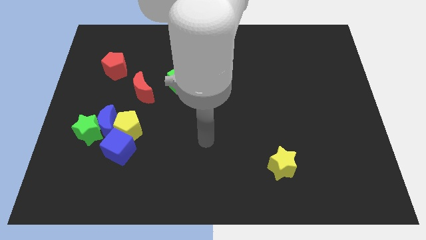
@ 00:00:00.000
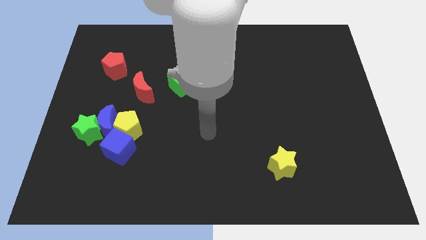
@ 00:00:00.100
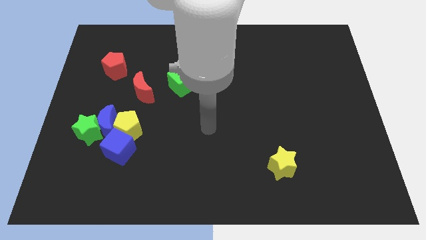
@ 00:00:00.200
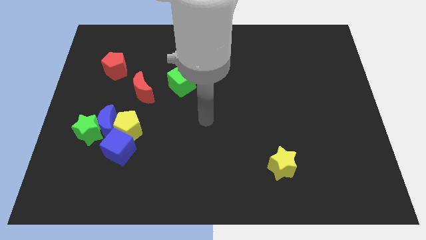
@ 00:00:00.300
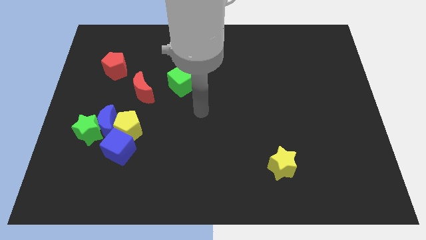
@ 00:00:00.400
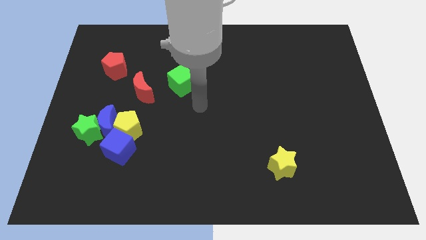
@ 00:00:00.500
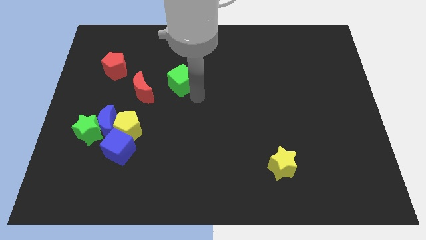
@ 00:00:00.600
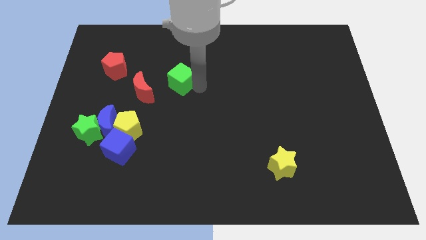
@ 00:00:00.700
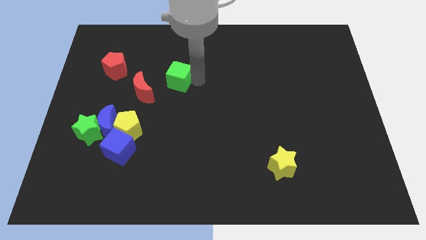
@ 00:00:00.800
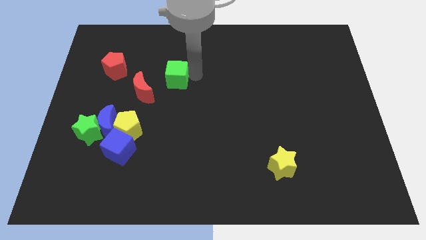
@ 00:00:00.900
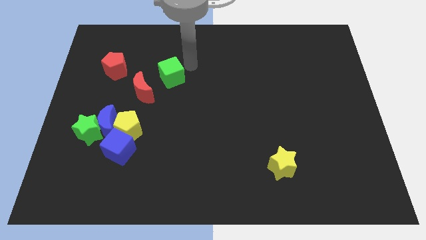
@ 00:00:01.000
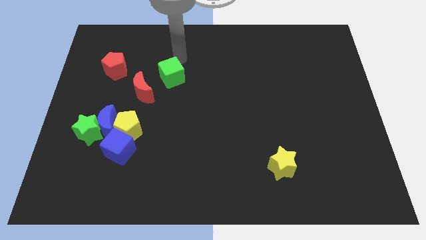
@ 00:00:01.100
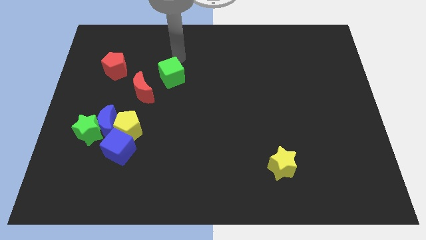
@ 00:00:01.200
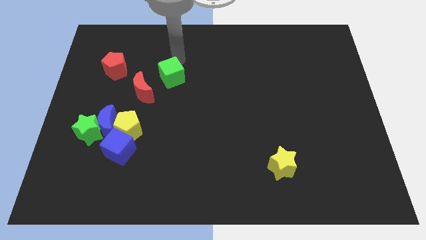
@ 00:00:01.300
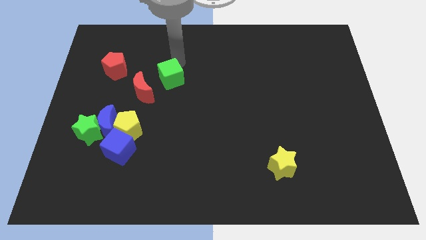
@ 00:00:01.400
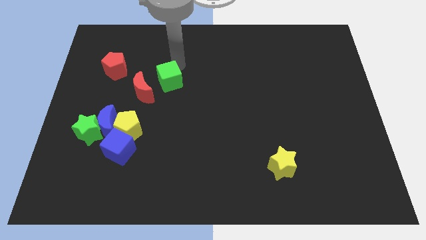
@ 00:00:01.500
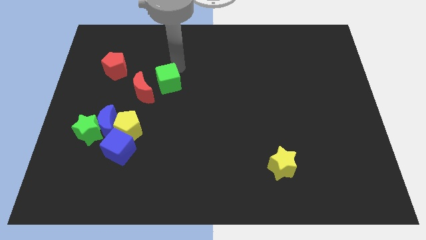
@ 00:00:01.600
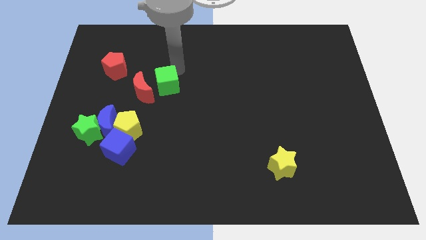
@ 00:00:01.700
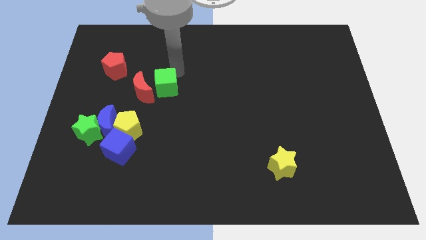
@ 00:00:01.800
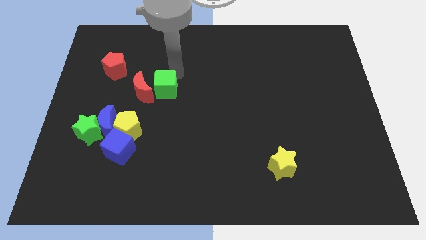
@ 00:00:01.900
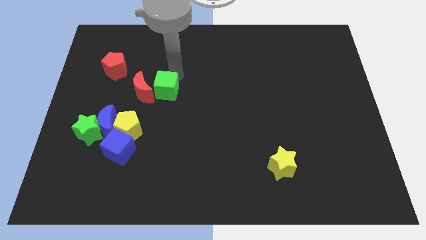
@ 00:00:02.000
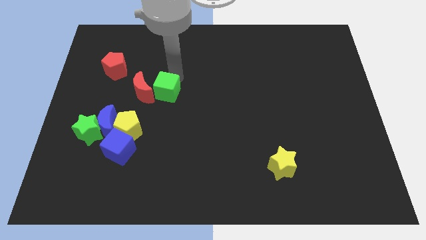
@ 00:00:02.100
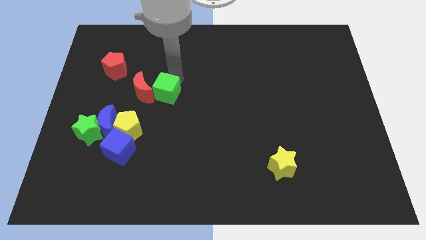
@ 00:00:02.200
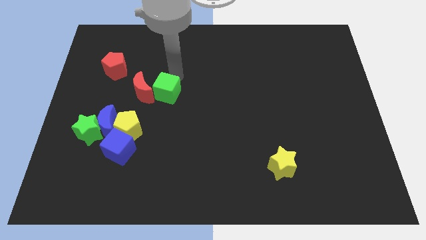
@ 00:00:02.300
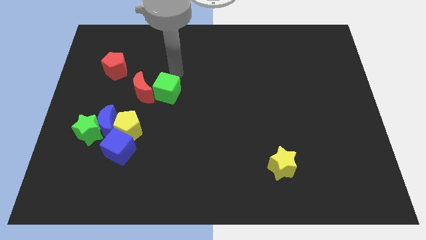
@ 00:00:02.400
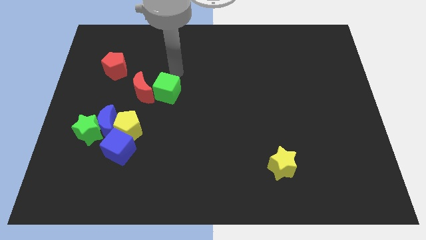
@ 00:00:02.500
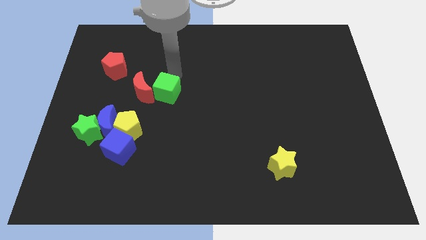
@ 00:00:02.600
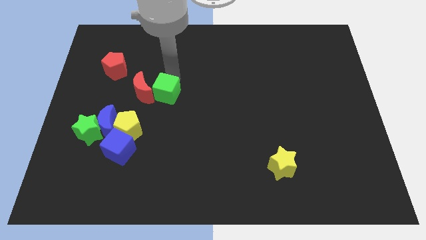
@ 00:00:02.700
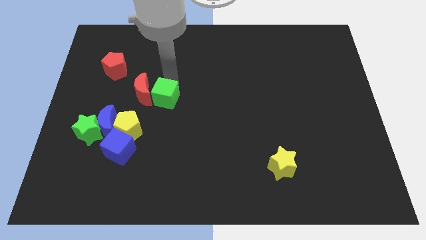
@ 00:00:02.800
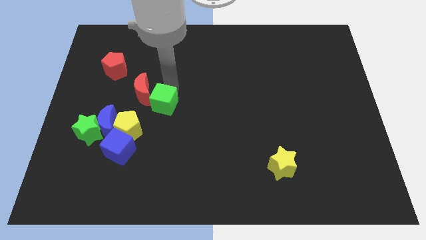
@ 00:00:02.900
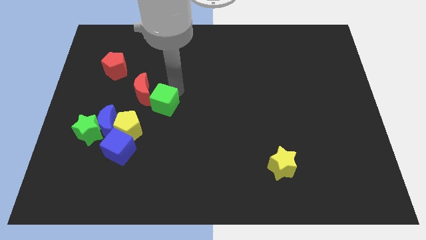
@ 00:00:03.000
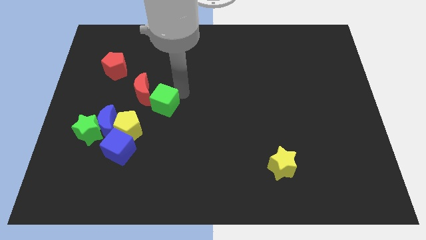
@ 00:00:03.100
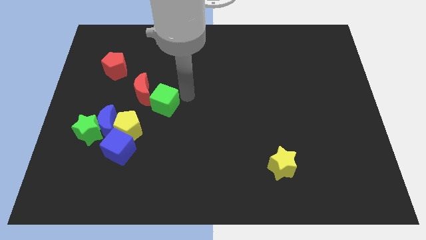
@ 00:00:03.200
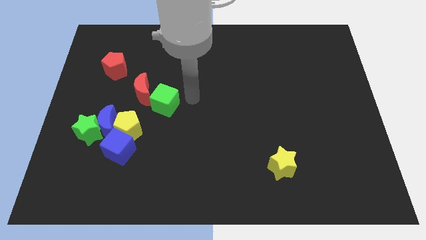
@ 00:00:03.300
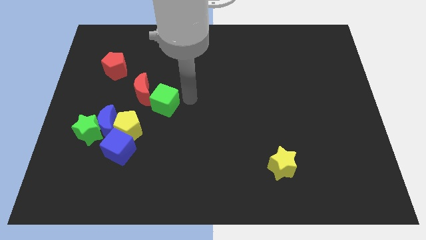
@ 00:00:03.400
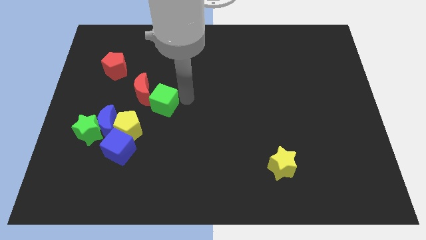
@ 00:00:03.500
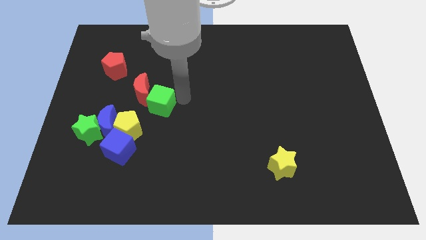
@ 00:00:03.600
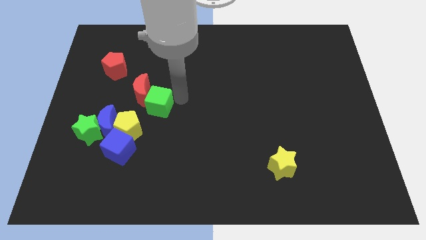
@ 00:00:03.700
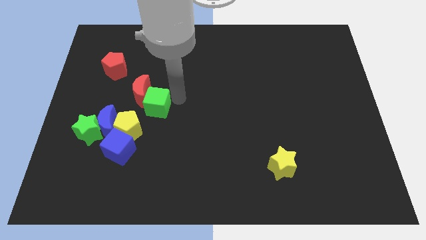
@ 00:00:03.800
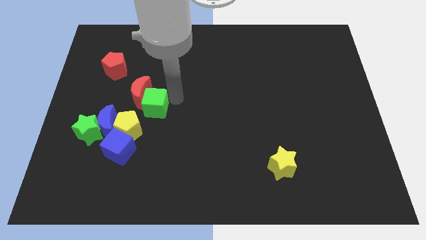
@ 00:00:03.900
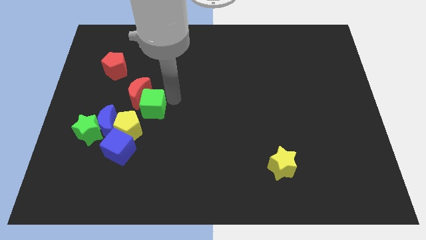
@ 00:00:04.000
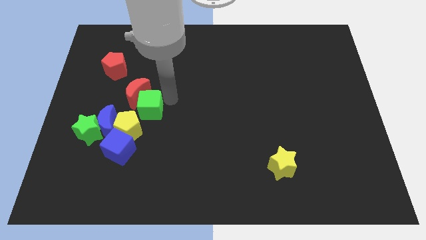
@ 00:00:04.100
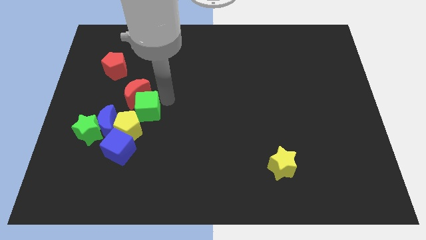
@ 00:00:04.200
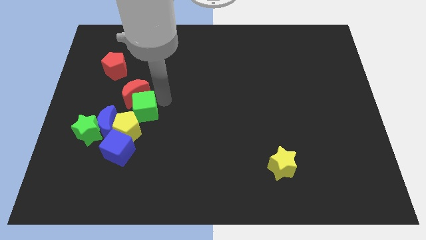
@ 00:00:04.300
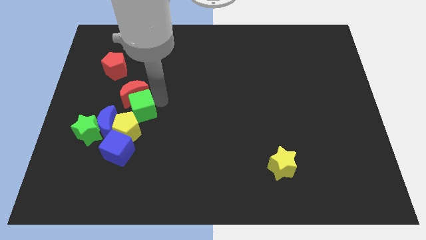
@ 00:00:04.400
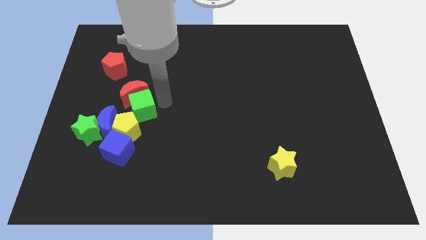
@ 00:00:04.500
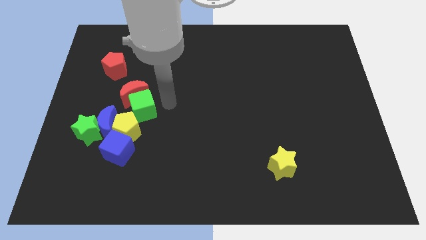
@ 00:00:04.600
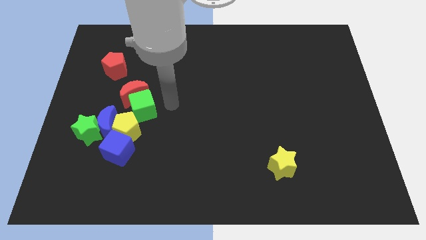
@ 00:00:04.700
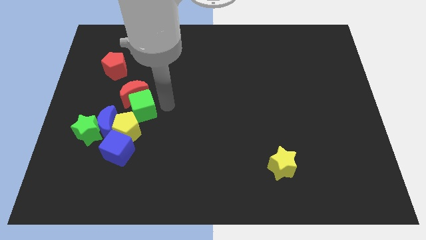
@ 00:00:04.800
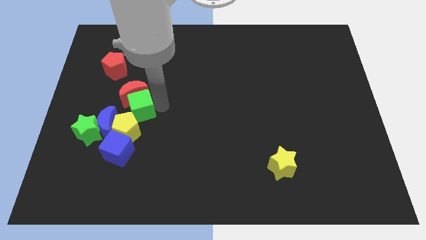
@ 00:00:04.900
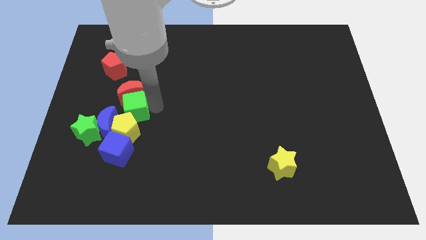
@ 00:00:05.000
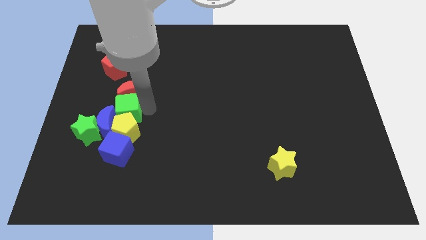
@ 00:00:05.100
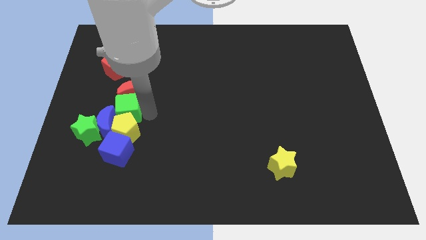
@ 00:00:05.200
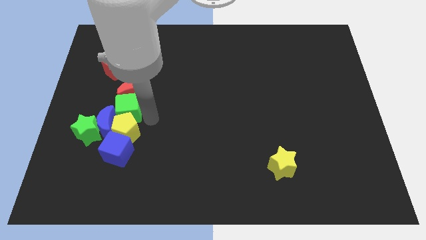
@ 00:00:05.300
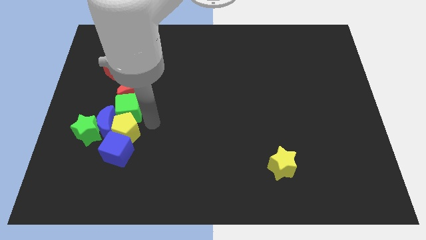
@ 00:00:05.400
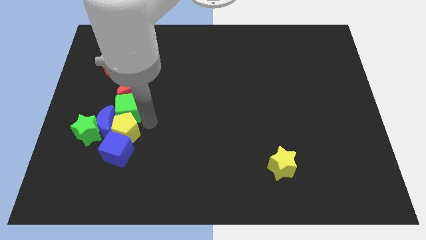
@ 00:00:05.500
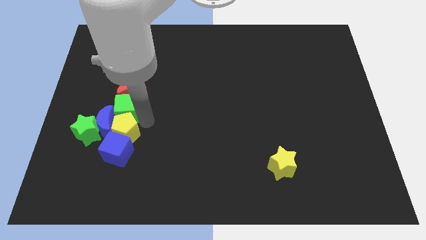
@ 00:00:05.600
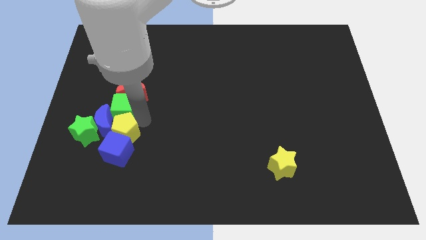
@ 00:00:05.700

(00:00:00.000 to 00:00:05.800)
move the green cube below the red pentagon

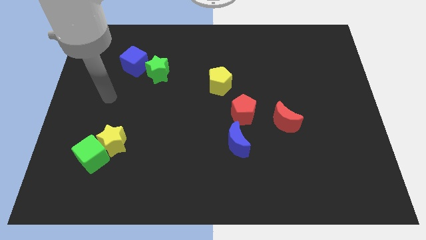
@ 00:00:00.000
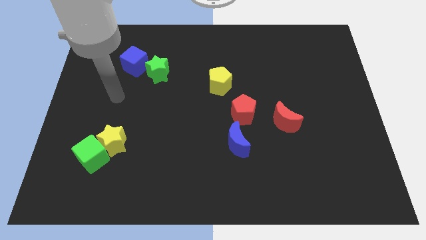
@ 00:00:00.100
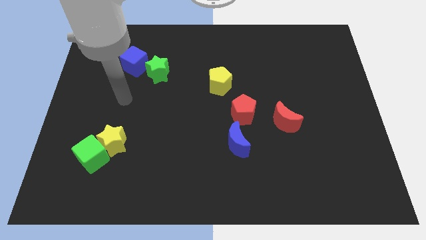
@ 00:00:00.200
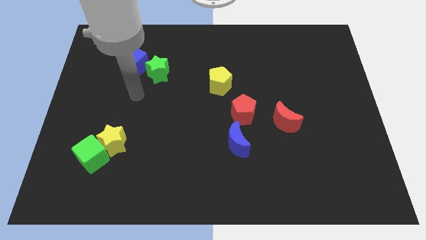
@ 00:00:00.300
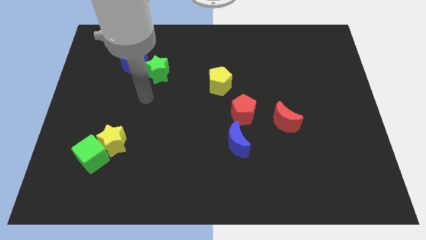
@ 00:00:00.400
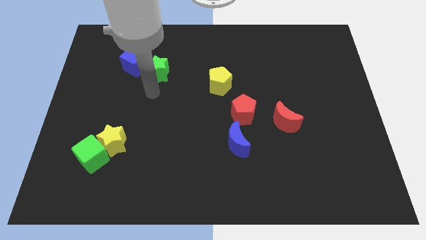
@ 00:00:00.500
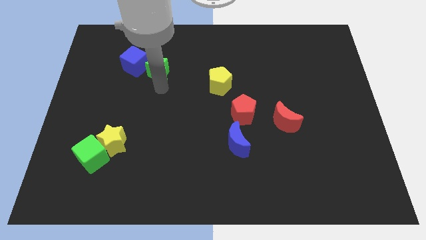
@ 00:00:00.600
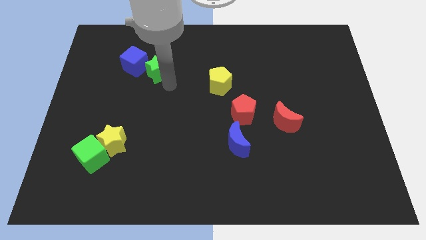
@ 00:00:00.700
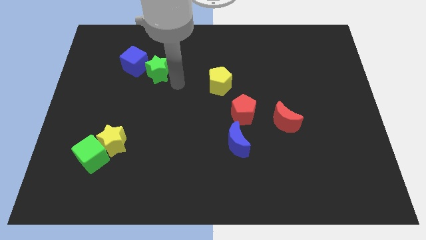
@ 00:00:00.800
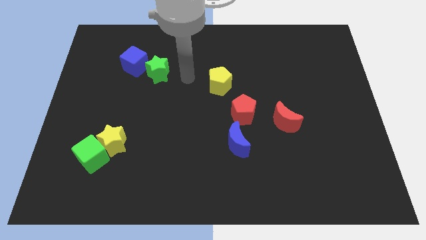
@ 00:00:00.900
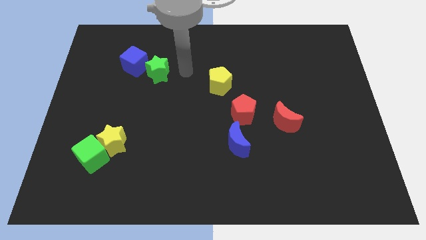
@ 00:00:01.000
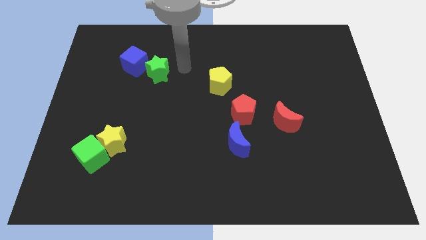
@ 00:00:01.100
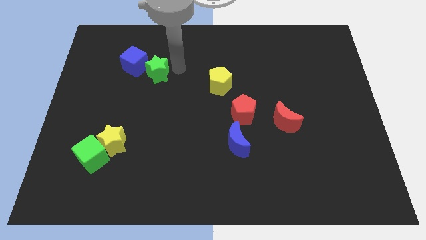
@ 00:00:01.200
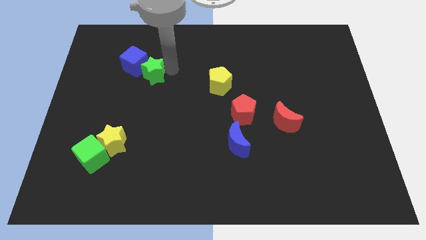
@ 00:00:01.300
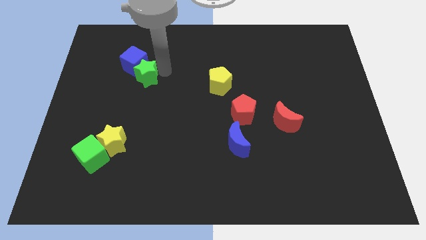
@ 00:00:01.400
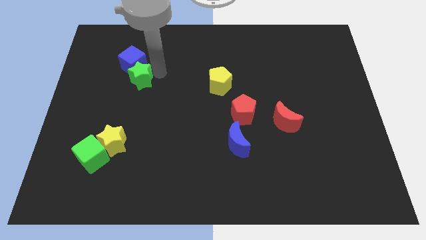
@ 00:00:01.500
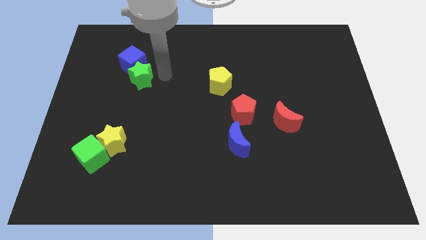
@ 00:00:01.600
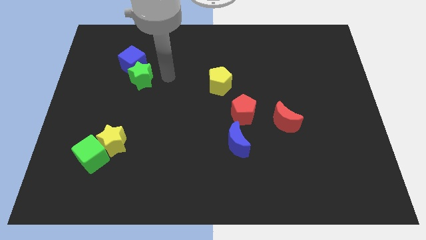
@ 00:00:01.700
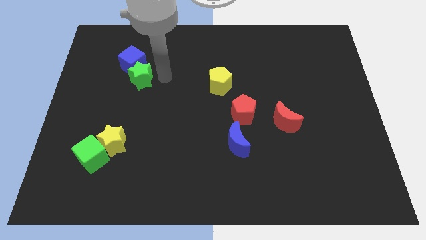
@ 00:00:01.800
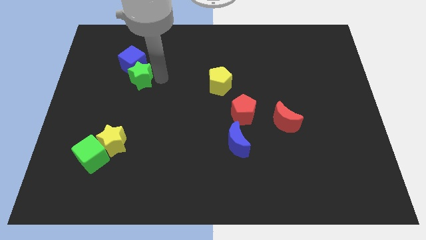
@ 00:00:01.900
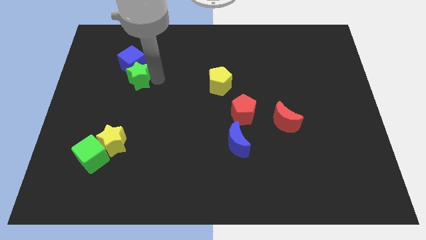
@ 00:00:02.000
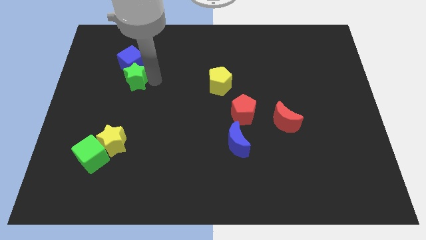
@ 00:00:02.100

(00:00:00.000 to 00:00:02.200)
slide the green star diagonally down and to the left of the blue cube
